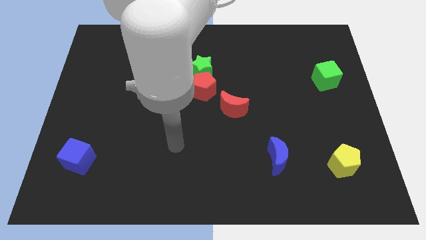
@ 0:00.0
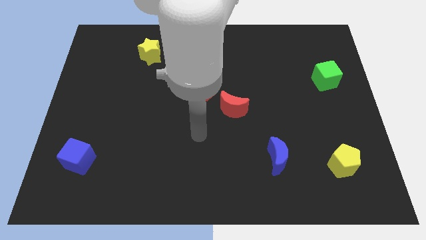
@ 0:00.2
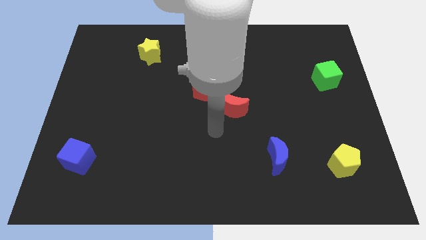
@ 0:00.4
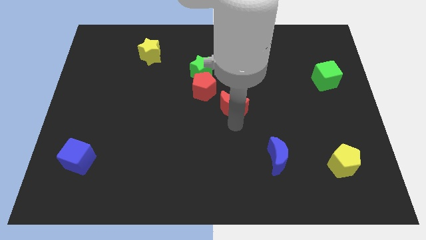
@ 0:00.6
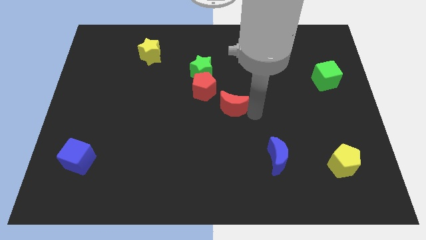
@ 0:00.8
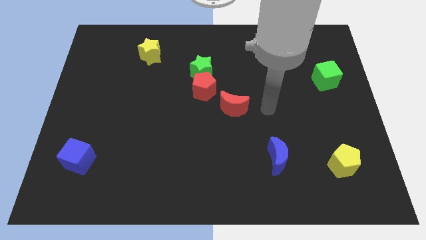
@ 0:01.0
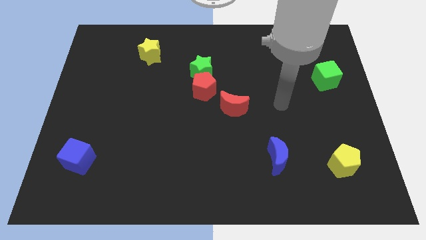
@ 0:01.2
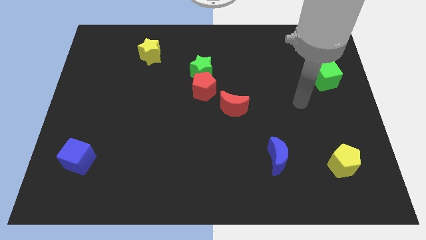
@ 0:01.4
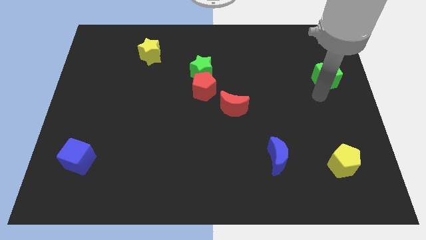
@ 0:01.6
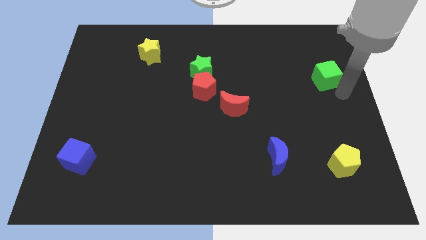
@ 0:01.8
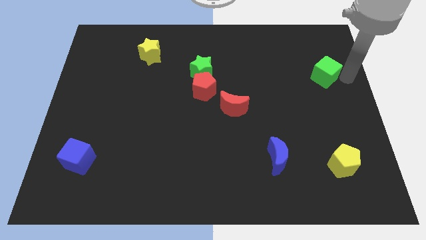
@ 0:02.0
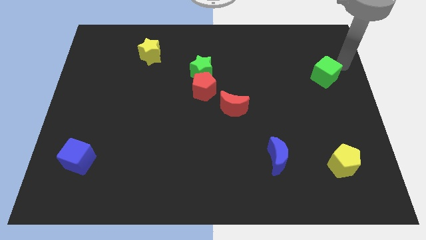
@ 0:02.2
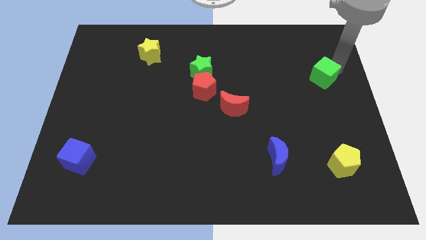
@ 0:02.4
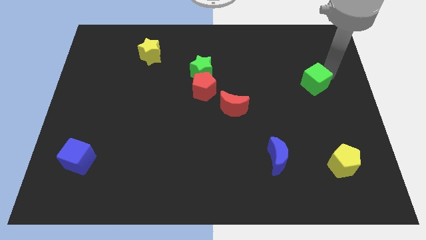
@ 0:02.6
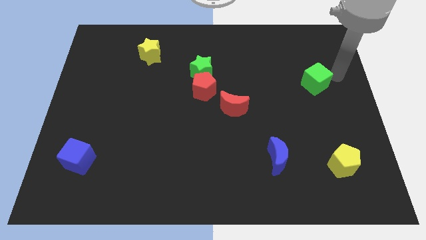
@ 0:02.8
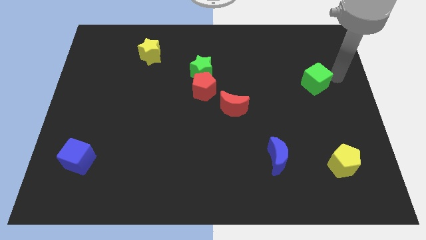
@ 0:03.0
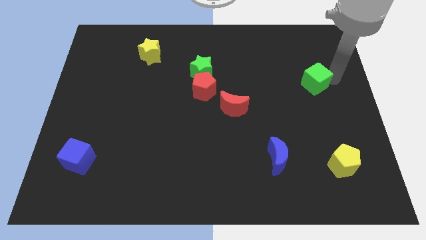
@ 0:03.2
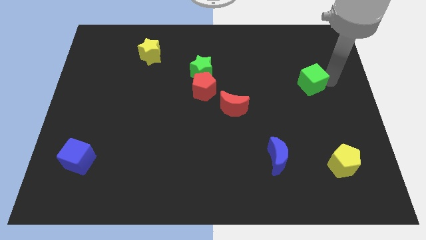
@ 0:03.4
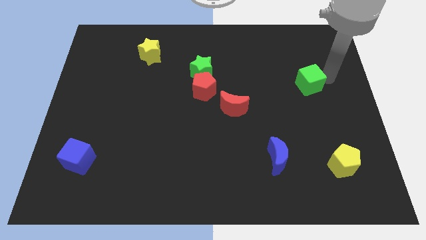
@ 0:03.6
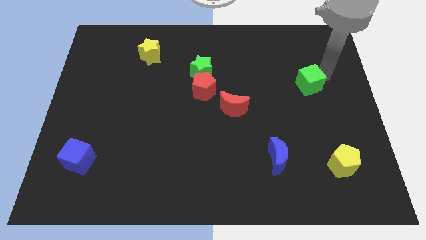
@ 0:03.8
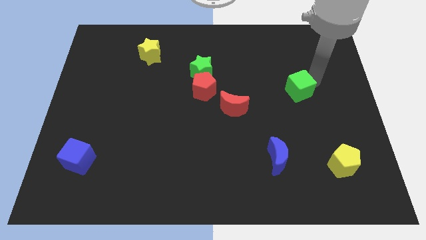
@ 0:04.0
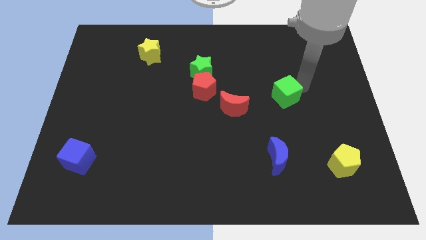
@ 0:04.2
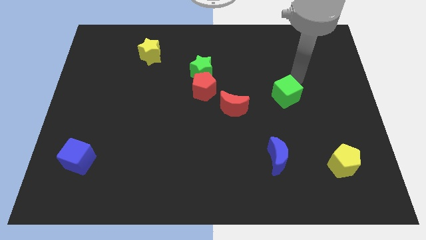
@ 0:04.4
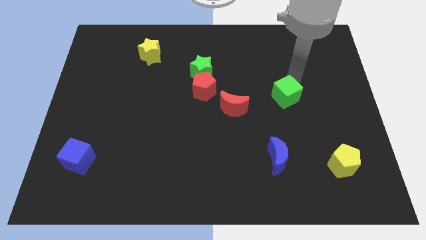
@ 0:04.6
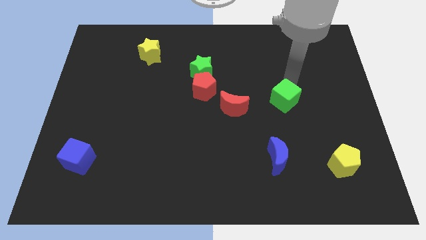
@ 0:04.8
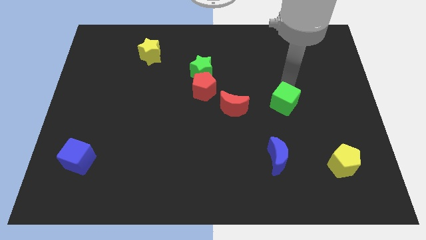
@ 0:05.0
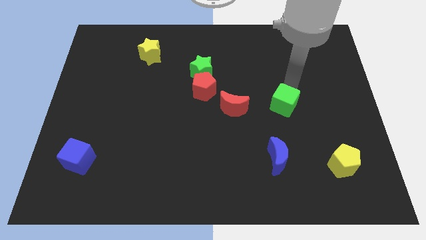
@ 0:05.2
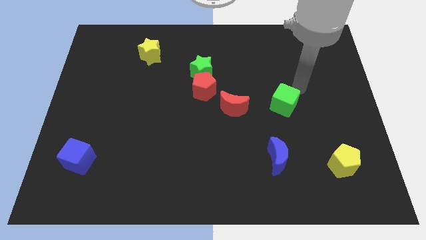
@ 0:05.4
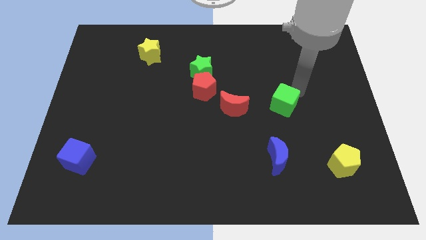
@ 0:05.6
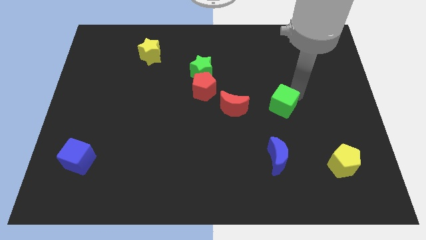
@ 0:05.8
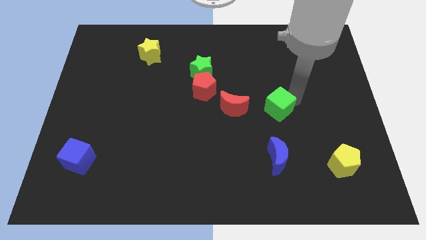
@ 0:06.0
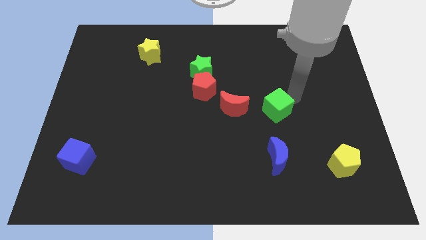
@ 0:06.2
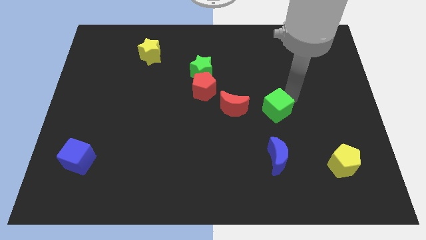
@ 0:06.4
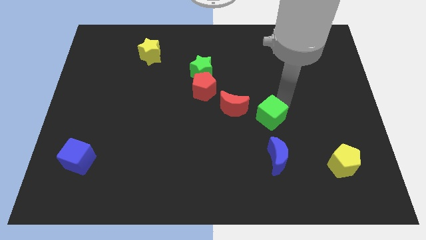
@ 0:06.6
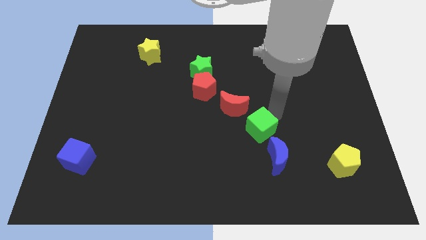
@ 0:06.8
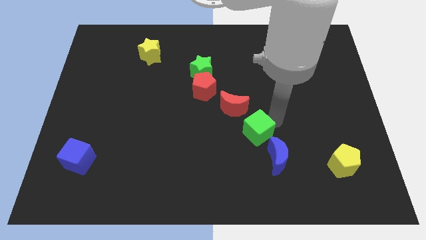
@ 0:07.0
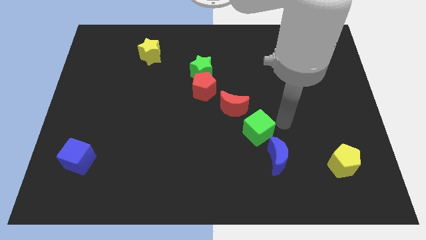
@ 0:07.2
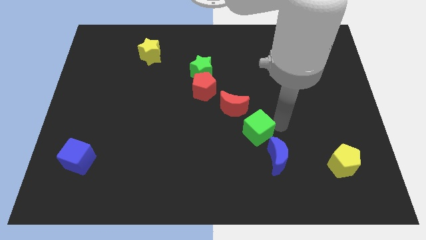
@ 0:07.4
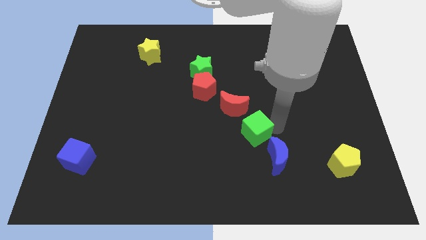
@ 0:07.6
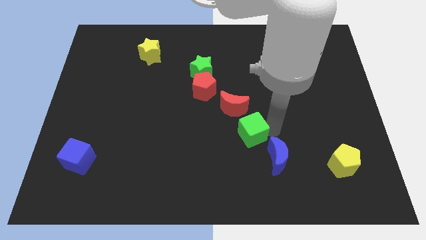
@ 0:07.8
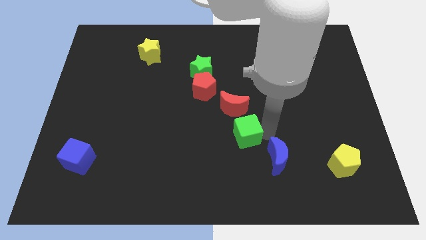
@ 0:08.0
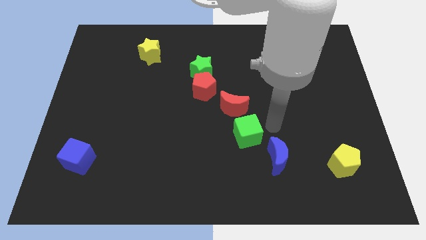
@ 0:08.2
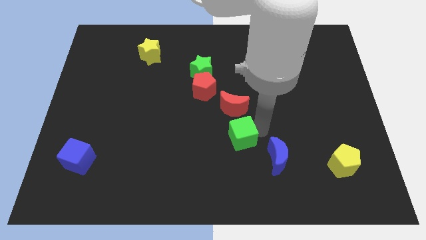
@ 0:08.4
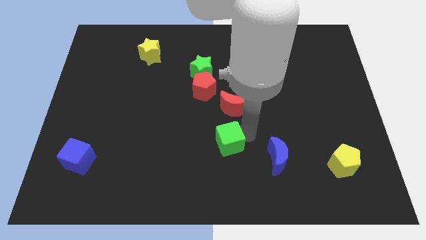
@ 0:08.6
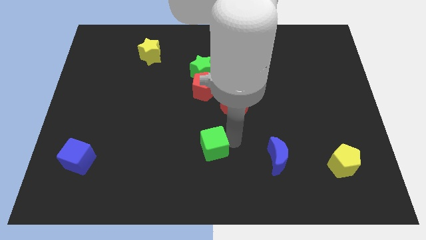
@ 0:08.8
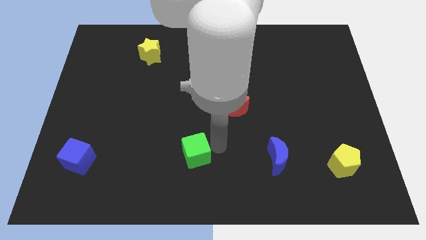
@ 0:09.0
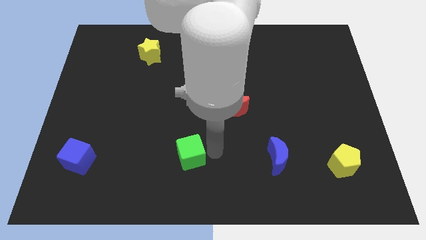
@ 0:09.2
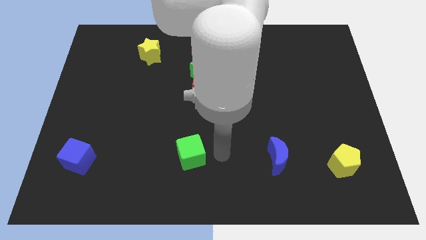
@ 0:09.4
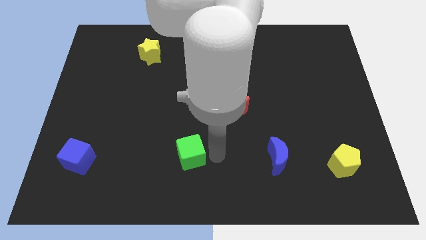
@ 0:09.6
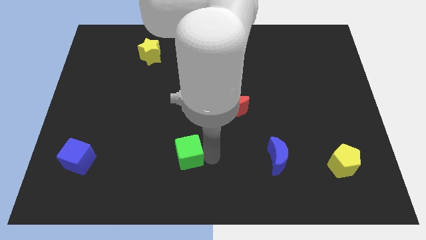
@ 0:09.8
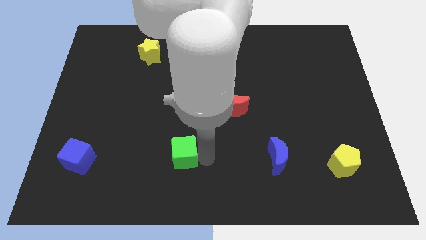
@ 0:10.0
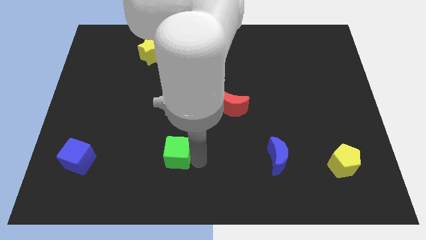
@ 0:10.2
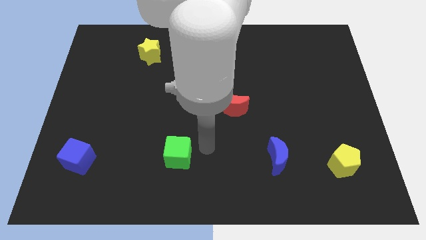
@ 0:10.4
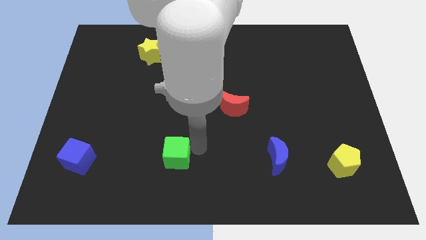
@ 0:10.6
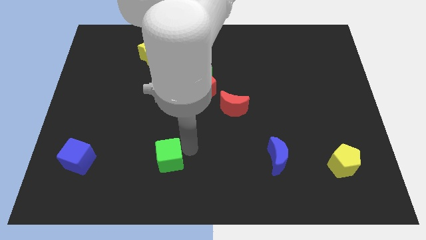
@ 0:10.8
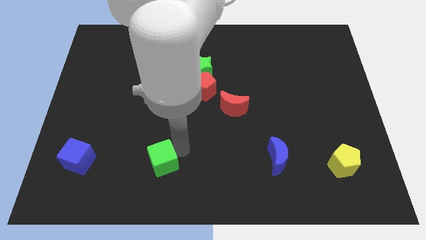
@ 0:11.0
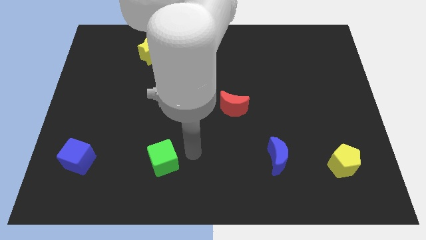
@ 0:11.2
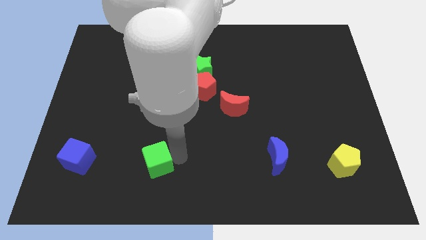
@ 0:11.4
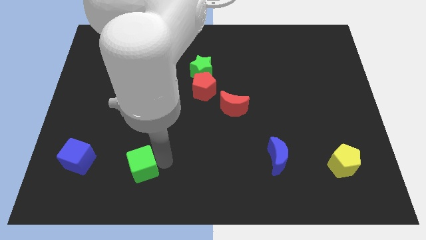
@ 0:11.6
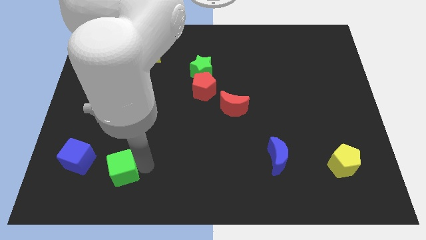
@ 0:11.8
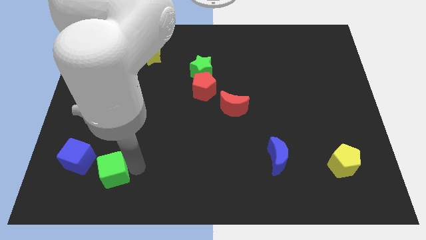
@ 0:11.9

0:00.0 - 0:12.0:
slide the green cube to the bottom right of the blue cube

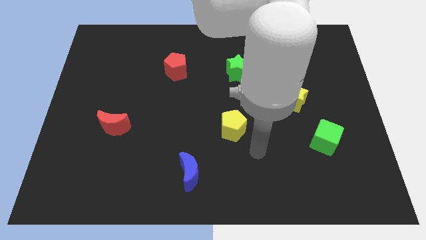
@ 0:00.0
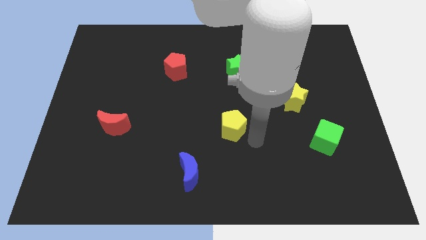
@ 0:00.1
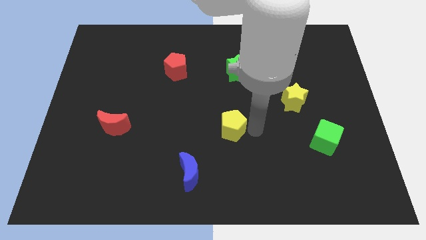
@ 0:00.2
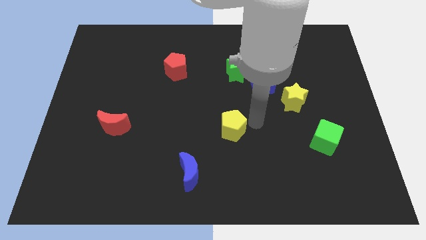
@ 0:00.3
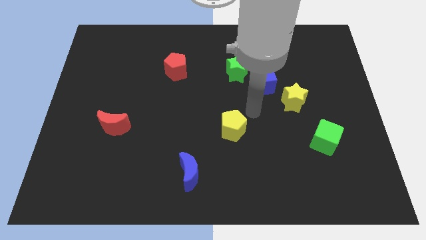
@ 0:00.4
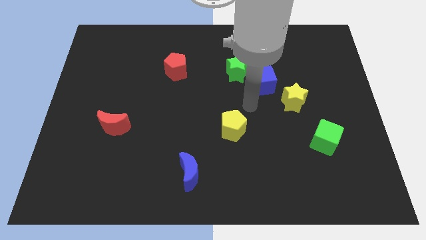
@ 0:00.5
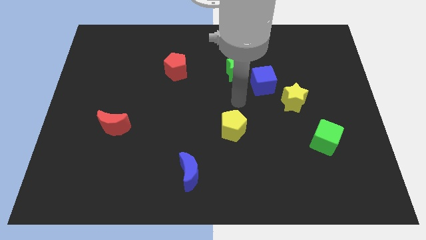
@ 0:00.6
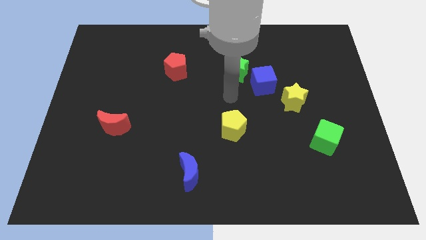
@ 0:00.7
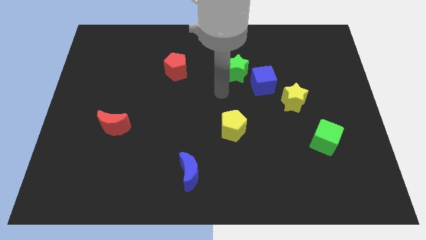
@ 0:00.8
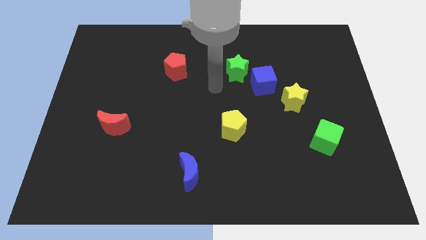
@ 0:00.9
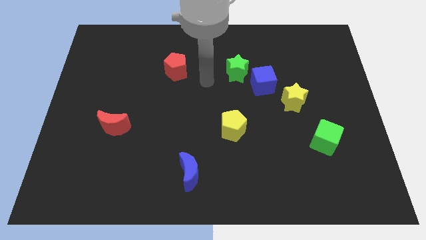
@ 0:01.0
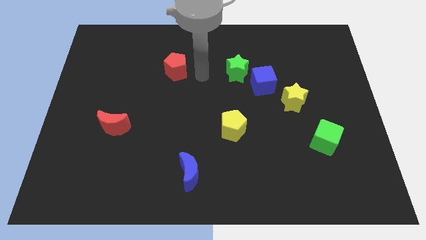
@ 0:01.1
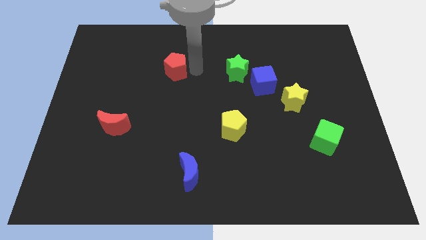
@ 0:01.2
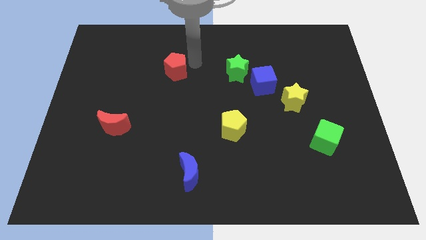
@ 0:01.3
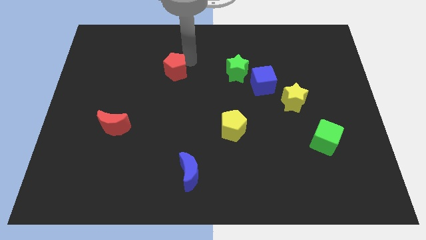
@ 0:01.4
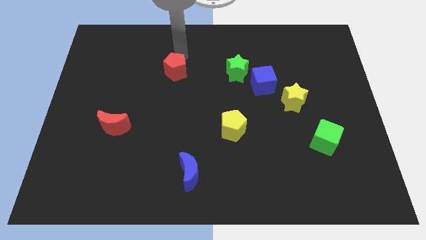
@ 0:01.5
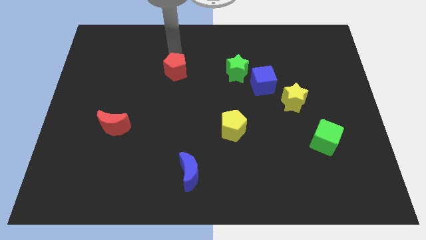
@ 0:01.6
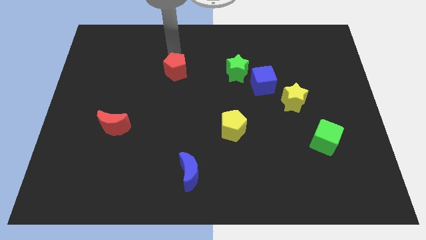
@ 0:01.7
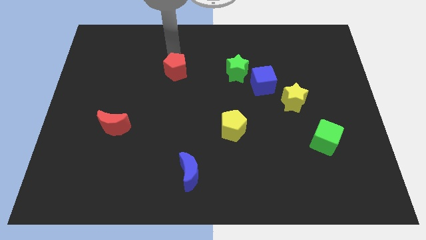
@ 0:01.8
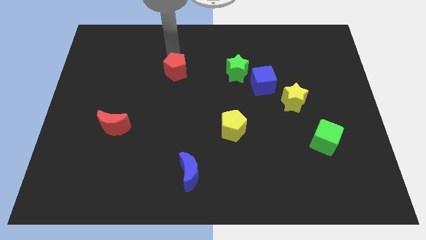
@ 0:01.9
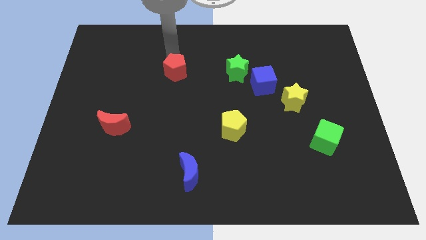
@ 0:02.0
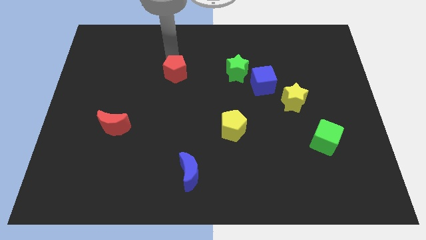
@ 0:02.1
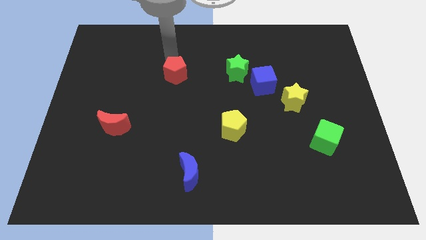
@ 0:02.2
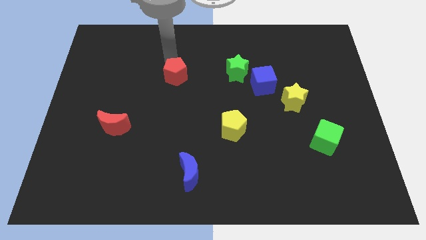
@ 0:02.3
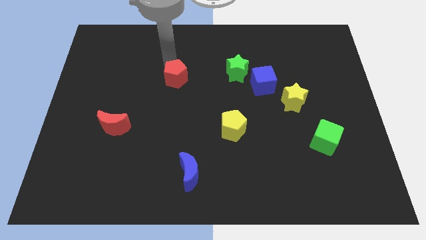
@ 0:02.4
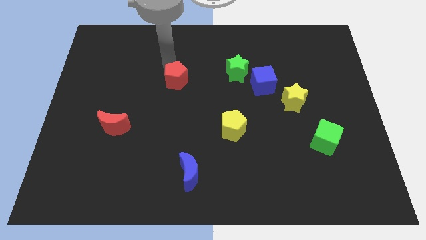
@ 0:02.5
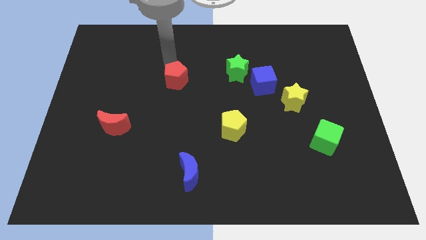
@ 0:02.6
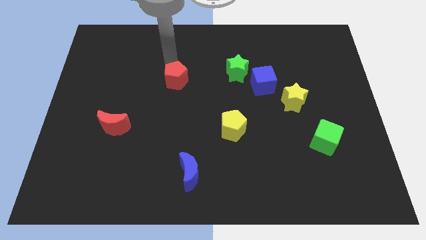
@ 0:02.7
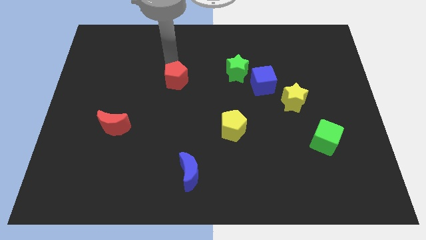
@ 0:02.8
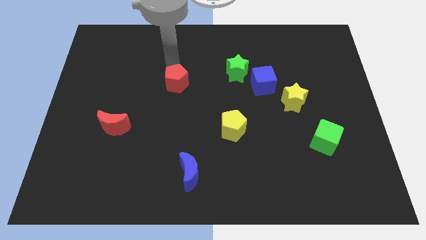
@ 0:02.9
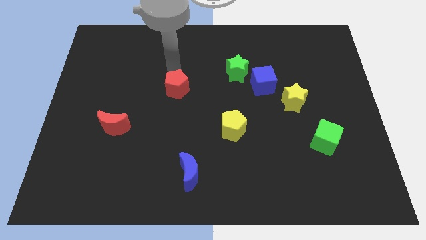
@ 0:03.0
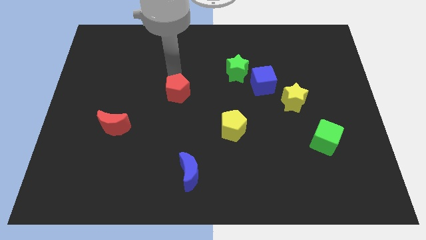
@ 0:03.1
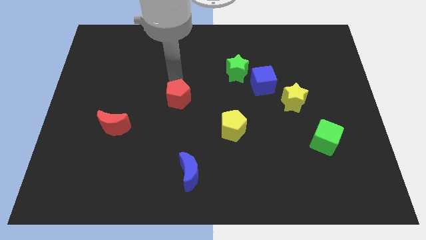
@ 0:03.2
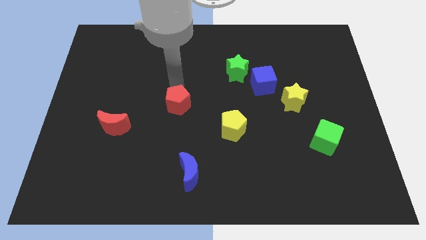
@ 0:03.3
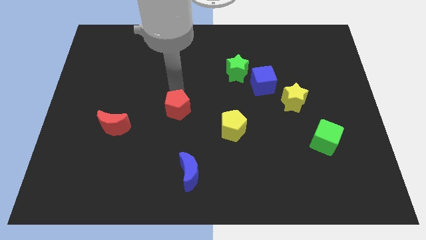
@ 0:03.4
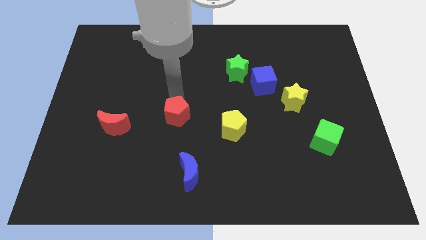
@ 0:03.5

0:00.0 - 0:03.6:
slide the red pentagon left of the yellow pentagon
